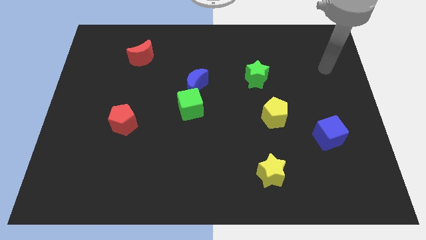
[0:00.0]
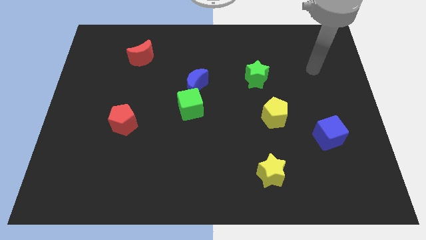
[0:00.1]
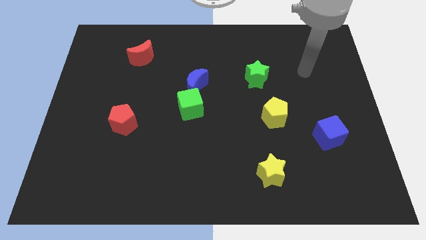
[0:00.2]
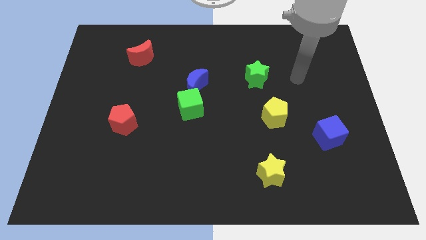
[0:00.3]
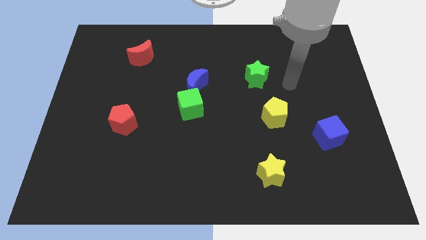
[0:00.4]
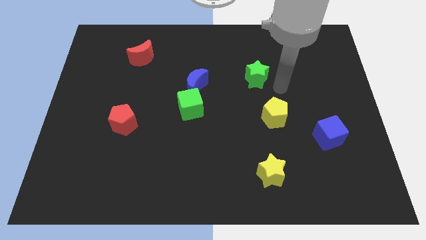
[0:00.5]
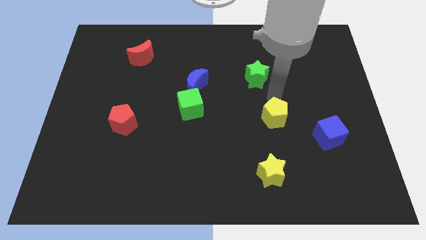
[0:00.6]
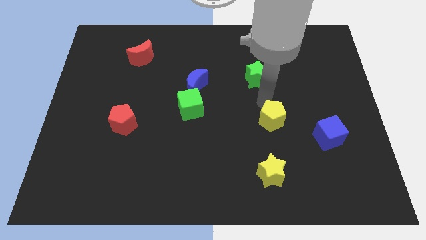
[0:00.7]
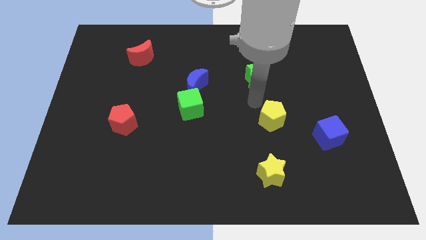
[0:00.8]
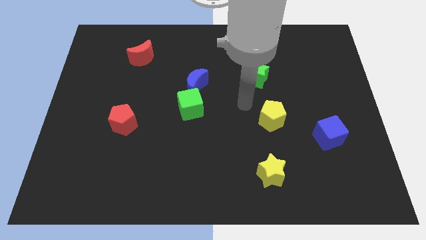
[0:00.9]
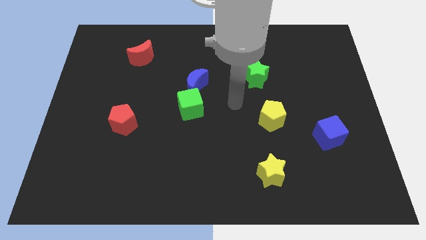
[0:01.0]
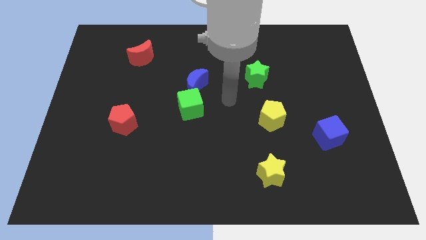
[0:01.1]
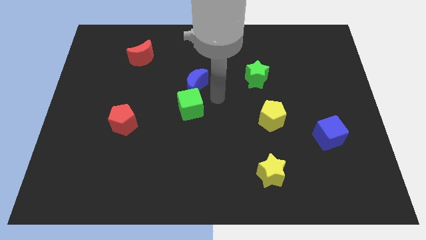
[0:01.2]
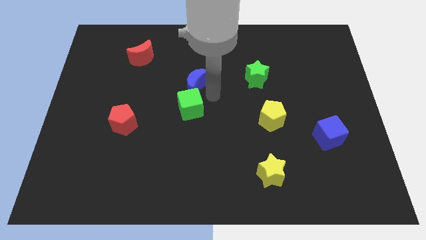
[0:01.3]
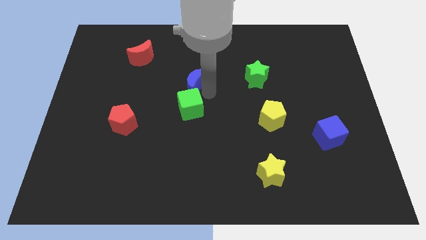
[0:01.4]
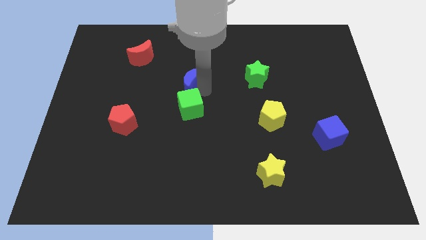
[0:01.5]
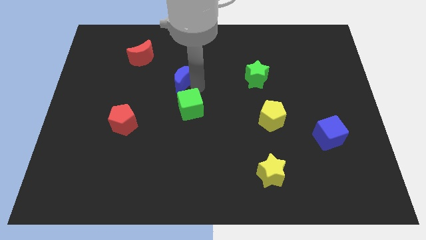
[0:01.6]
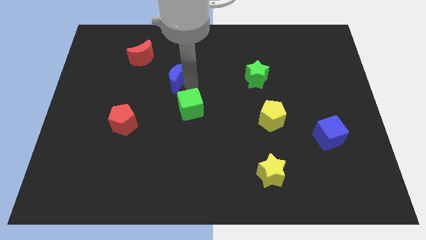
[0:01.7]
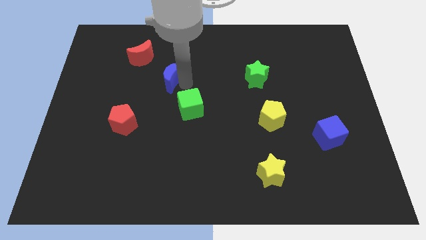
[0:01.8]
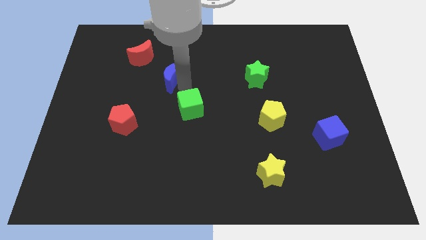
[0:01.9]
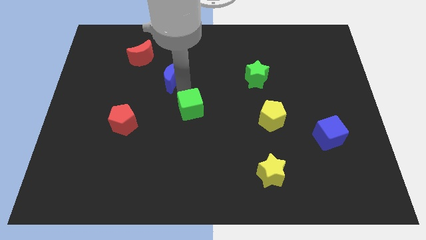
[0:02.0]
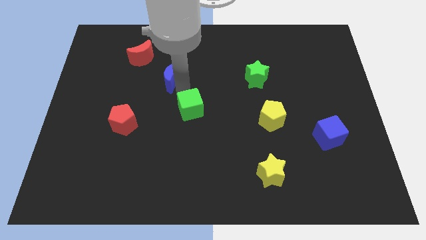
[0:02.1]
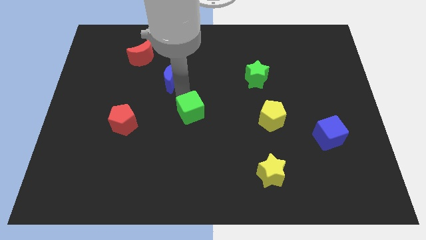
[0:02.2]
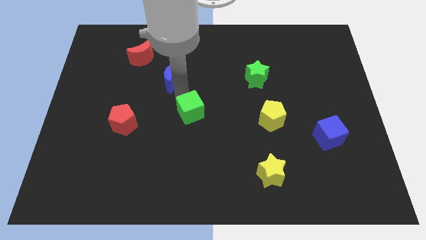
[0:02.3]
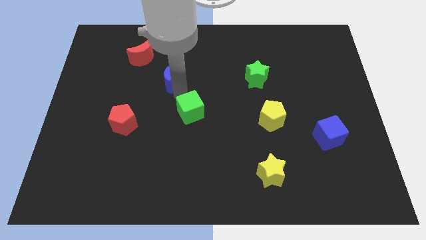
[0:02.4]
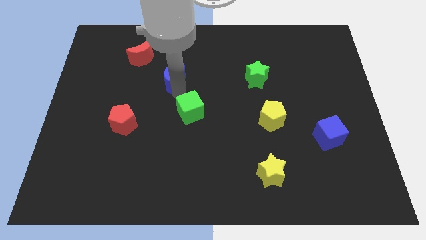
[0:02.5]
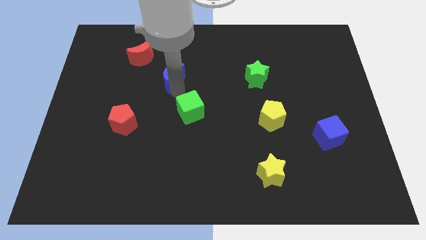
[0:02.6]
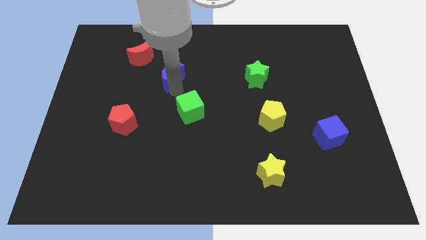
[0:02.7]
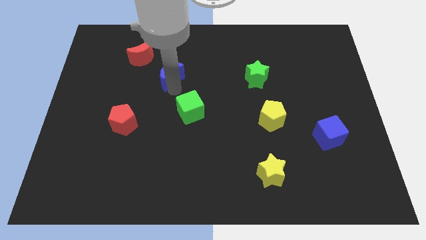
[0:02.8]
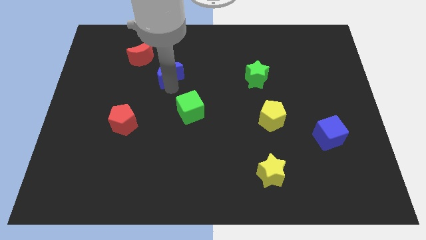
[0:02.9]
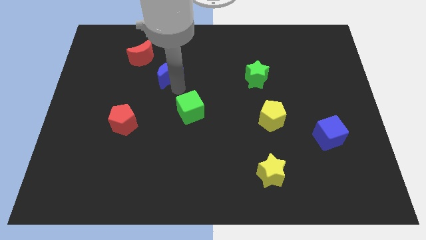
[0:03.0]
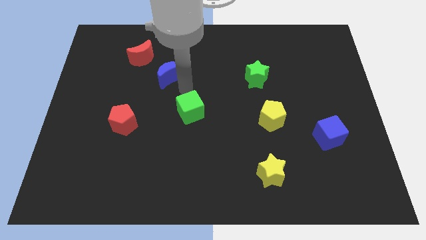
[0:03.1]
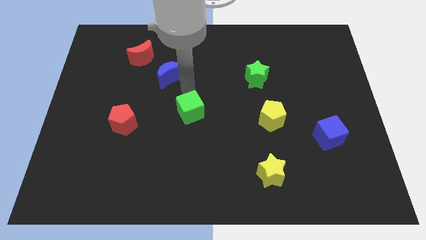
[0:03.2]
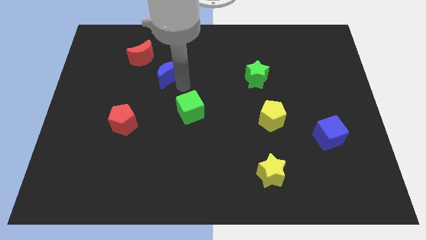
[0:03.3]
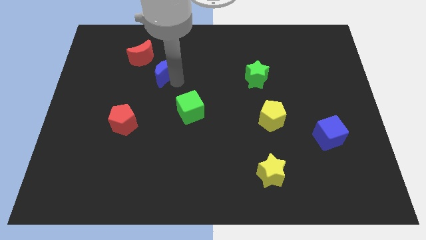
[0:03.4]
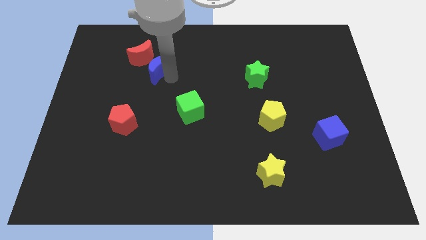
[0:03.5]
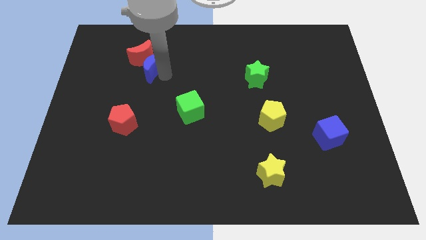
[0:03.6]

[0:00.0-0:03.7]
put the blue moon towards the red moon

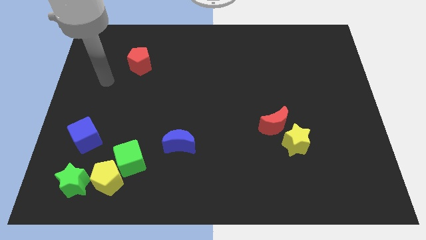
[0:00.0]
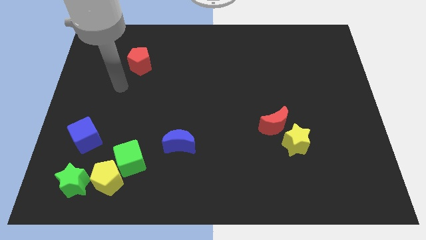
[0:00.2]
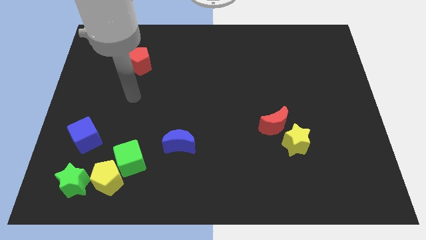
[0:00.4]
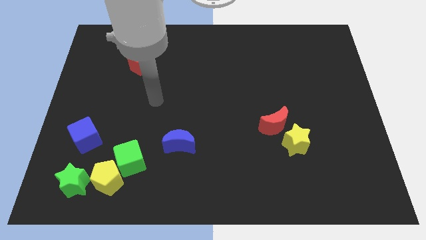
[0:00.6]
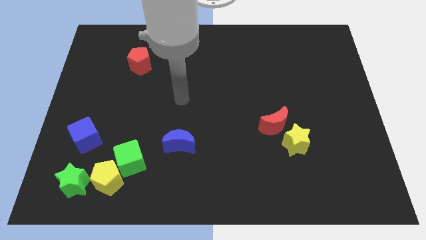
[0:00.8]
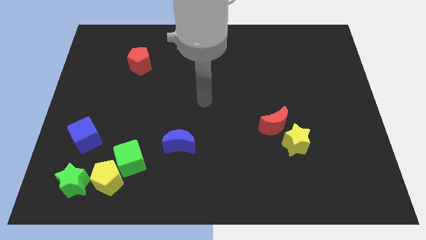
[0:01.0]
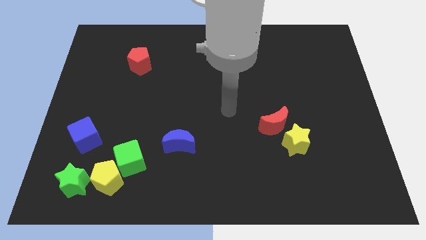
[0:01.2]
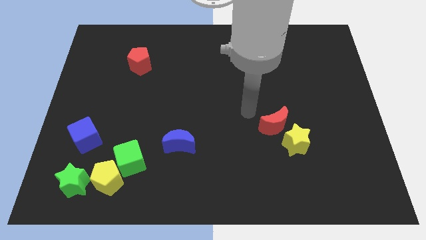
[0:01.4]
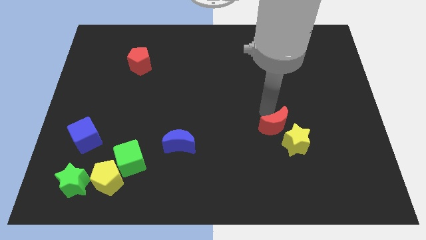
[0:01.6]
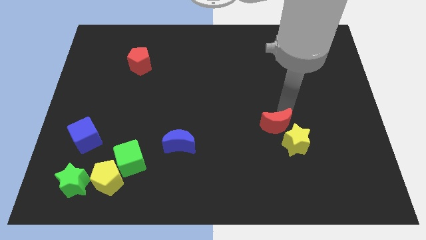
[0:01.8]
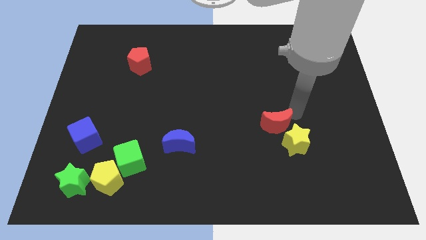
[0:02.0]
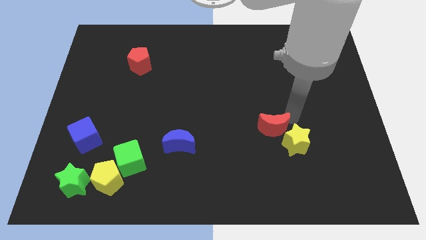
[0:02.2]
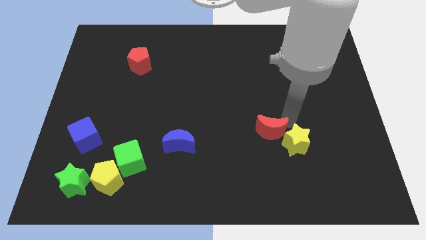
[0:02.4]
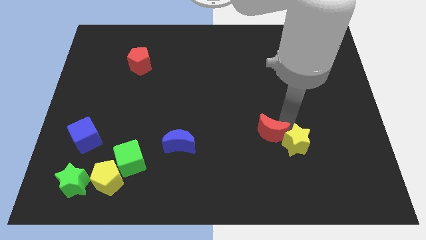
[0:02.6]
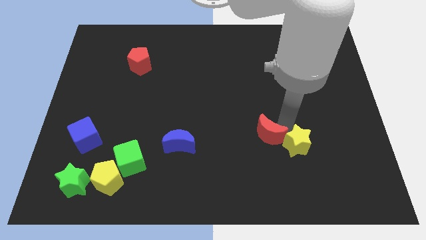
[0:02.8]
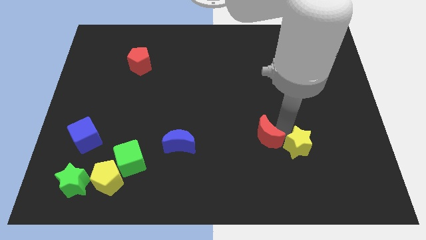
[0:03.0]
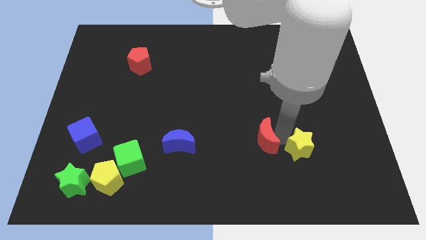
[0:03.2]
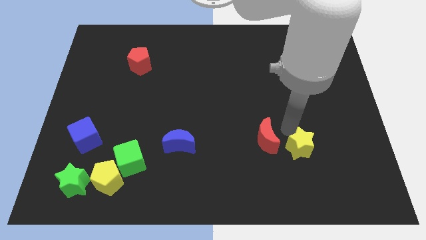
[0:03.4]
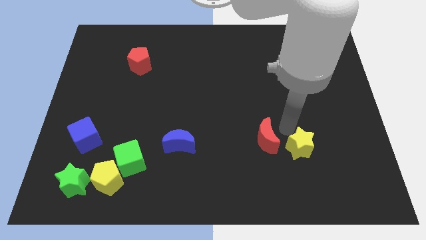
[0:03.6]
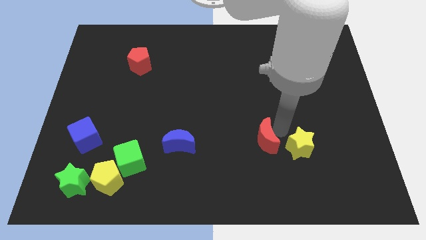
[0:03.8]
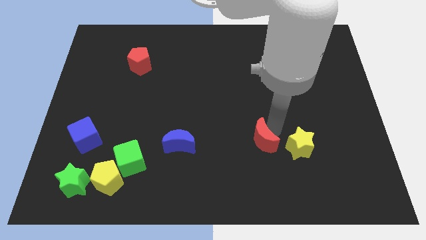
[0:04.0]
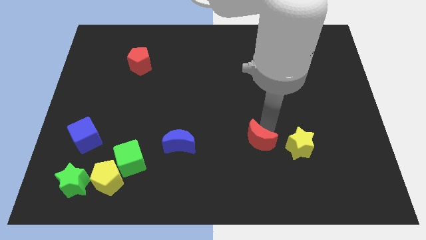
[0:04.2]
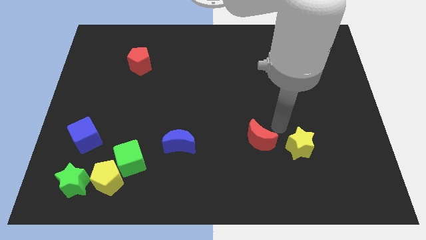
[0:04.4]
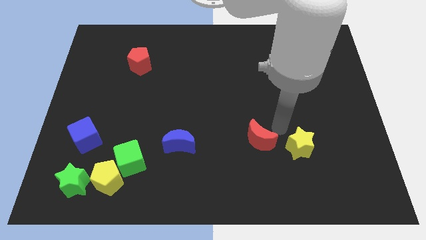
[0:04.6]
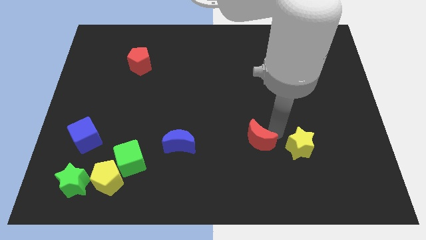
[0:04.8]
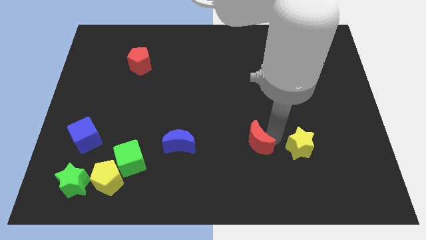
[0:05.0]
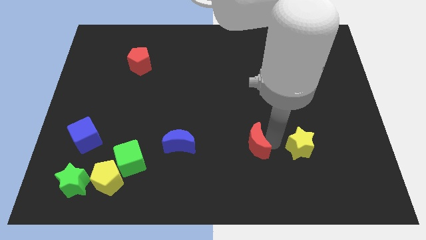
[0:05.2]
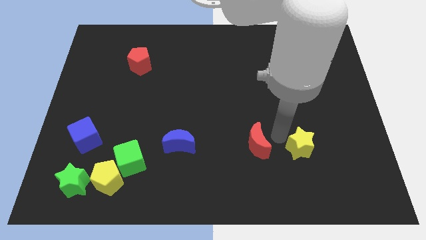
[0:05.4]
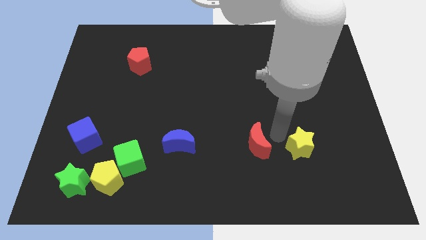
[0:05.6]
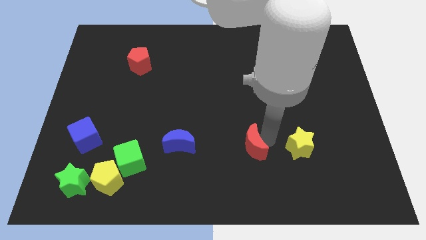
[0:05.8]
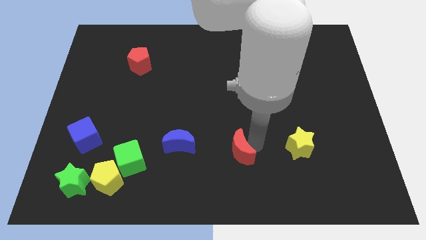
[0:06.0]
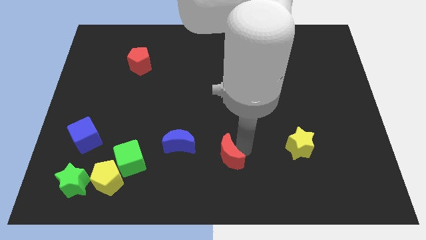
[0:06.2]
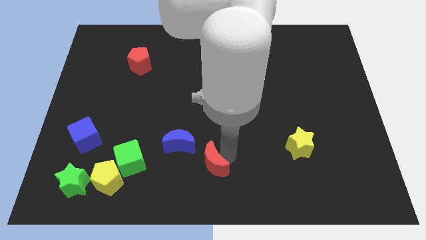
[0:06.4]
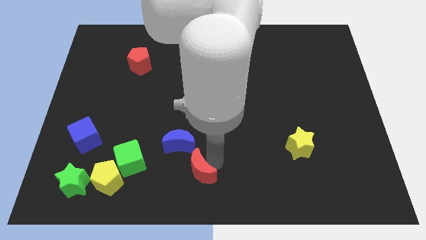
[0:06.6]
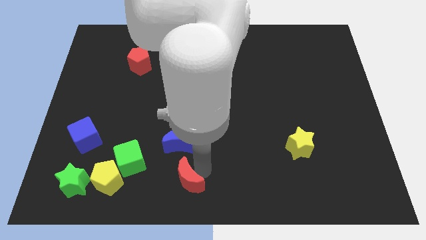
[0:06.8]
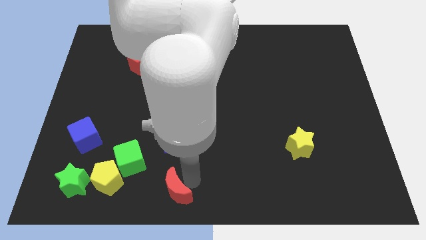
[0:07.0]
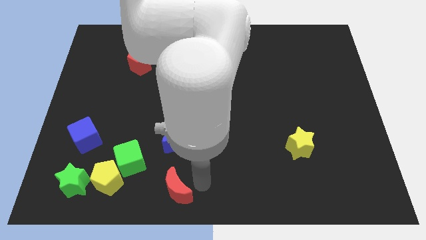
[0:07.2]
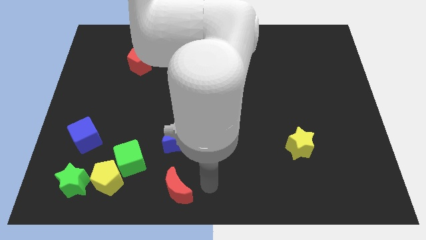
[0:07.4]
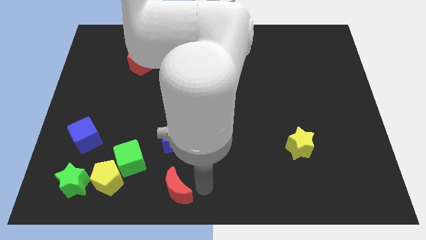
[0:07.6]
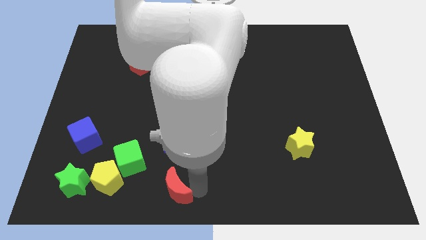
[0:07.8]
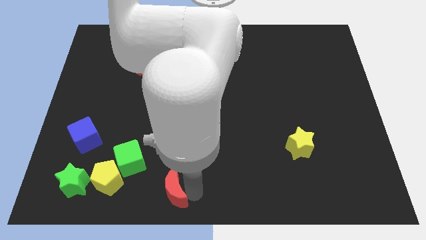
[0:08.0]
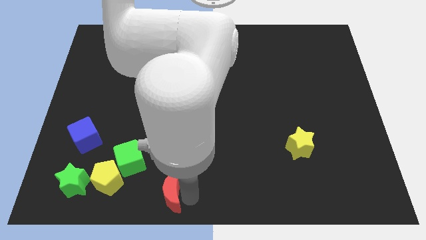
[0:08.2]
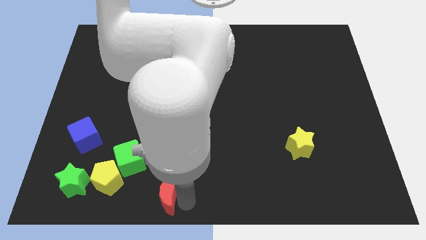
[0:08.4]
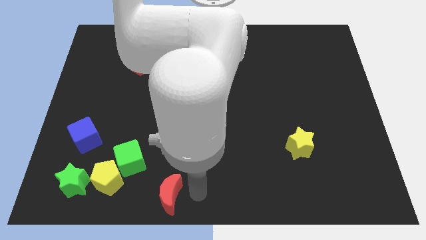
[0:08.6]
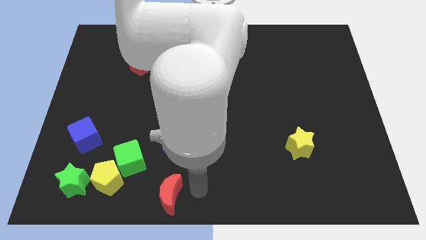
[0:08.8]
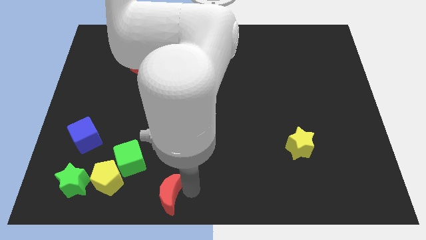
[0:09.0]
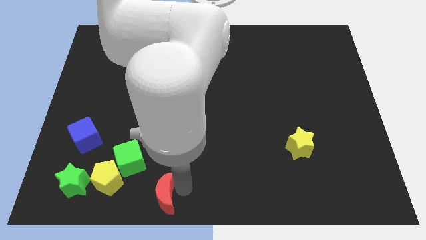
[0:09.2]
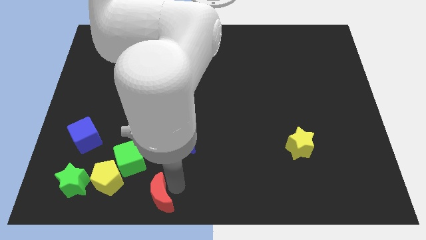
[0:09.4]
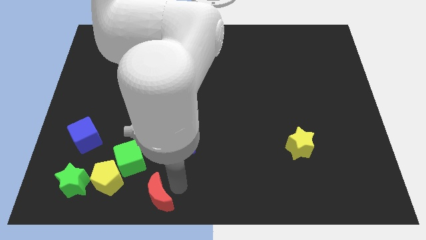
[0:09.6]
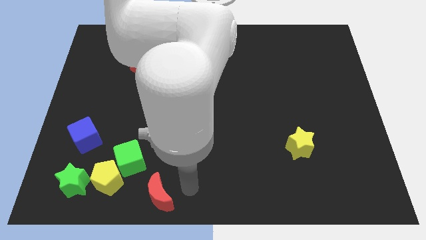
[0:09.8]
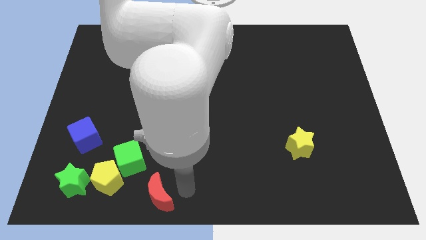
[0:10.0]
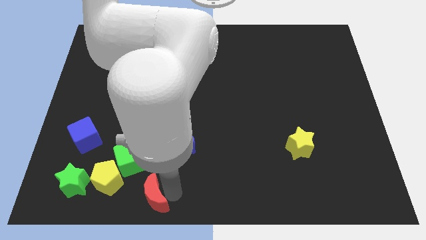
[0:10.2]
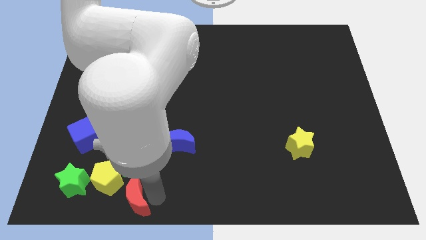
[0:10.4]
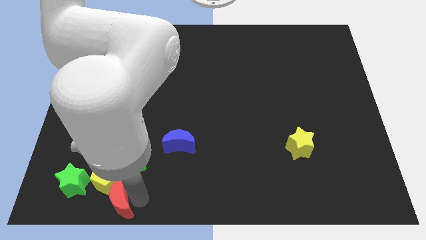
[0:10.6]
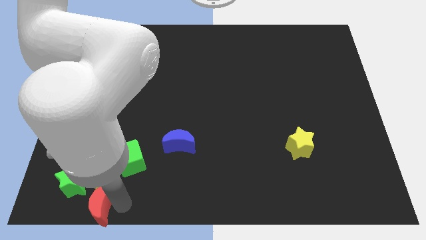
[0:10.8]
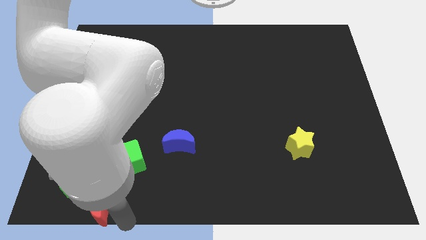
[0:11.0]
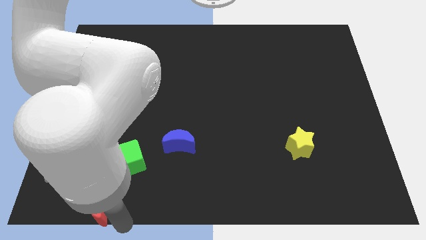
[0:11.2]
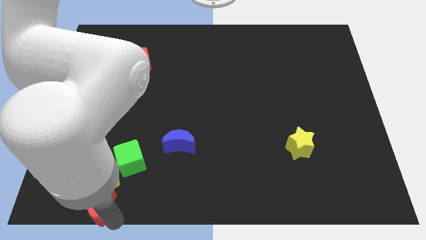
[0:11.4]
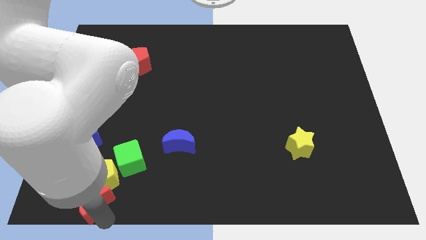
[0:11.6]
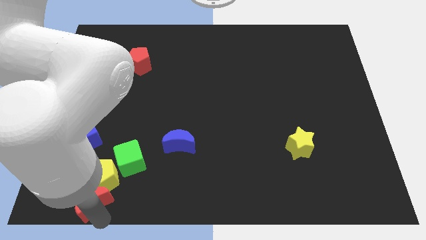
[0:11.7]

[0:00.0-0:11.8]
push the red moon close to the green star
